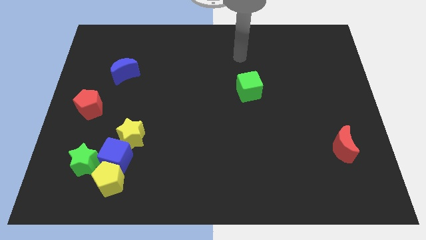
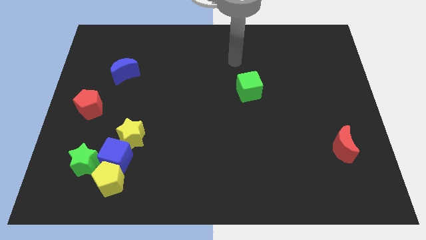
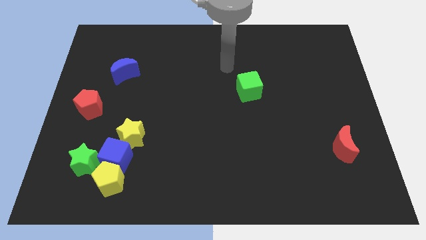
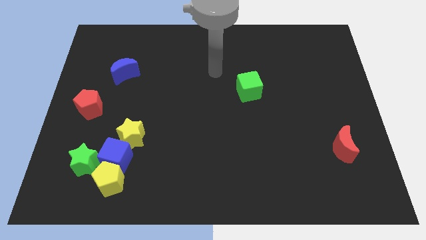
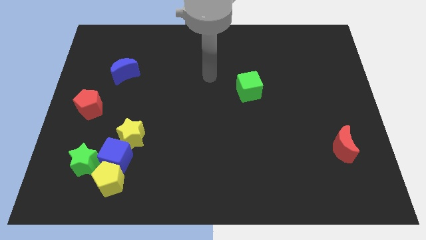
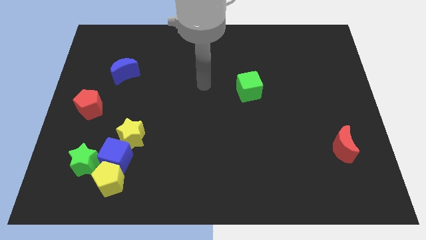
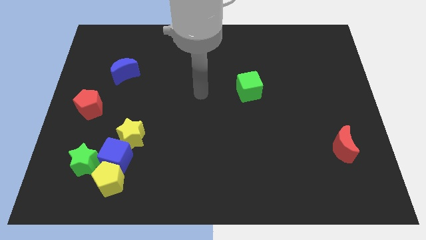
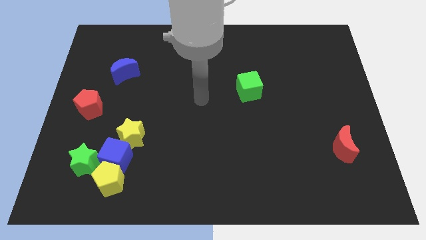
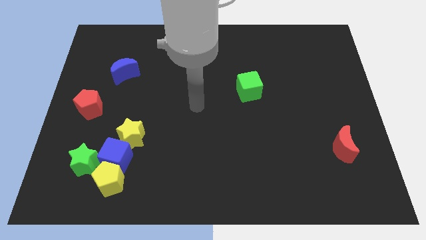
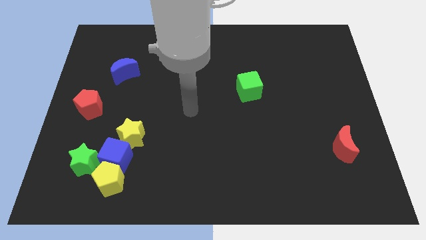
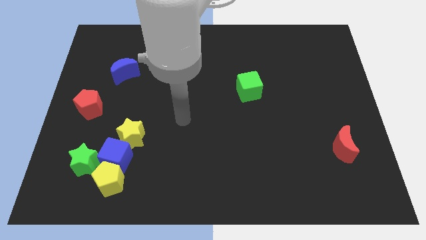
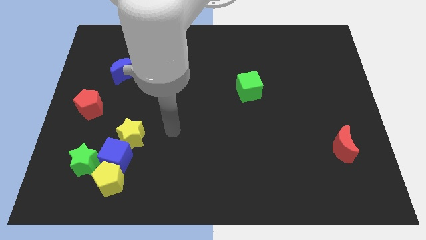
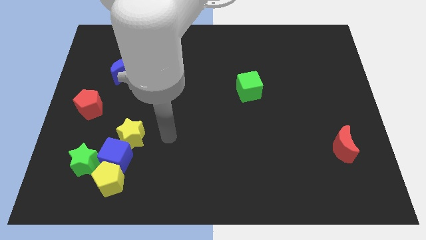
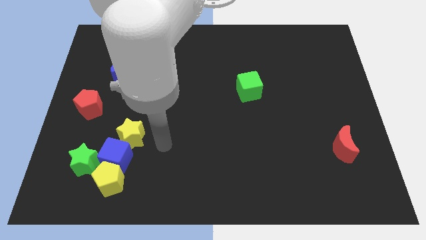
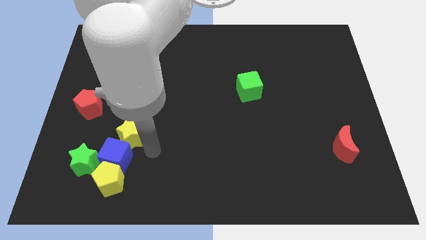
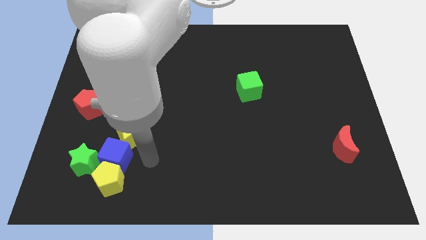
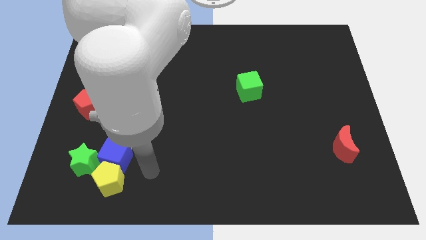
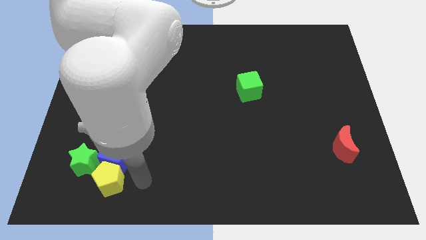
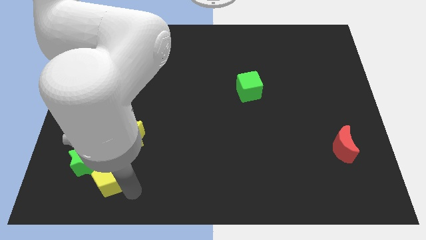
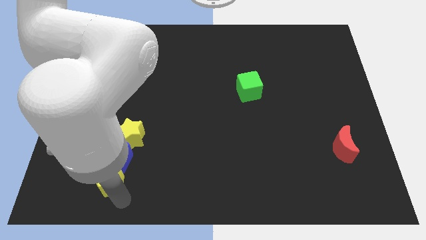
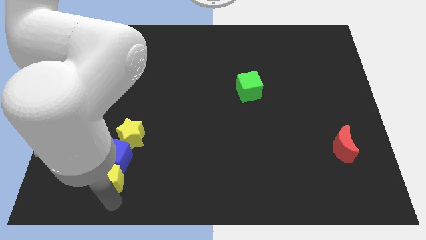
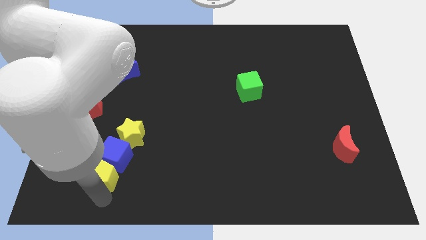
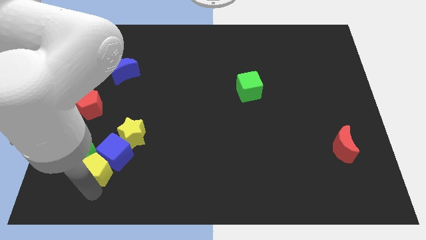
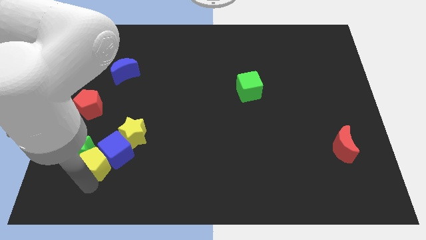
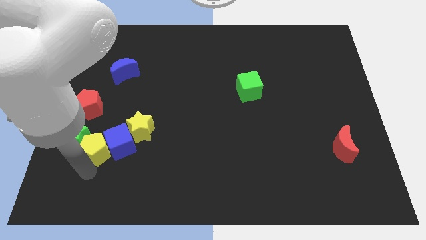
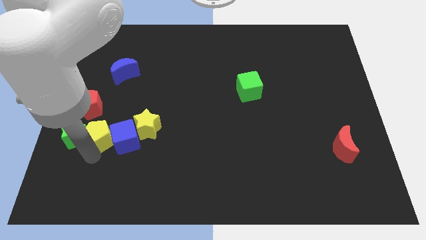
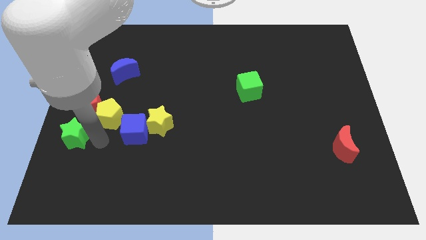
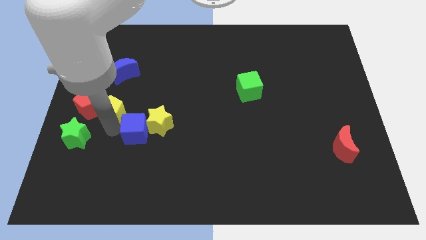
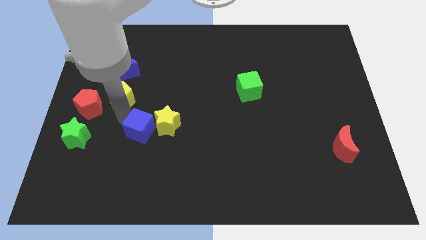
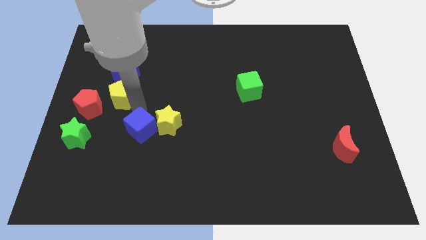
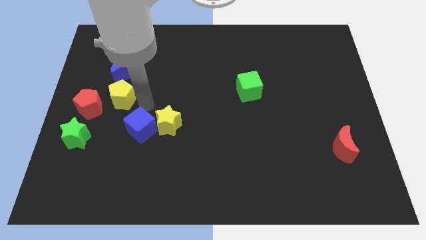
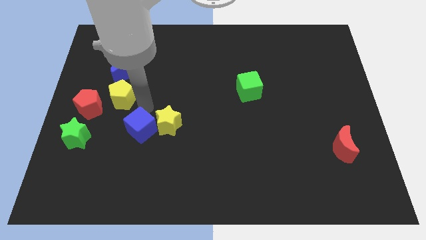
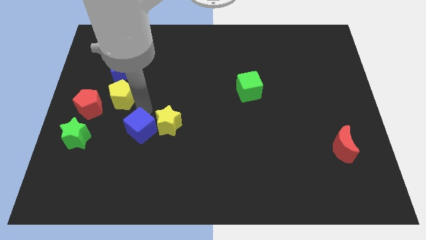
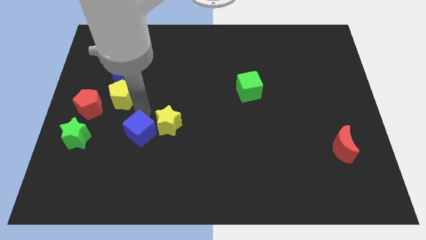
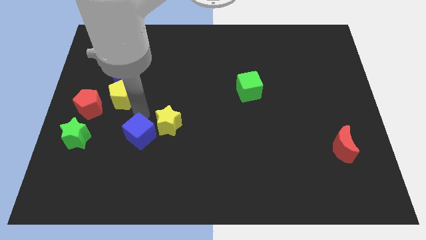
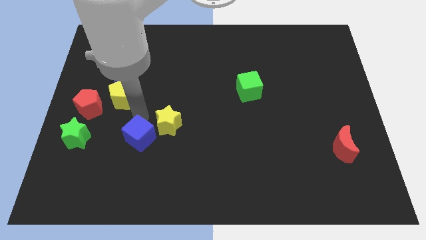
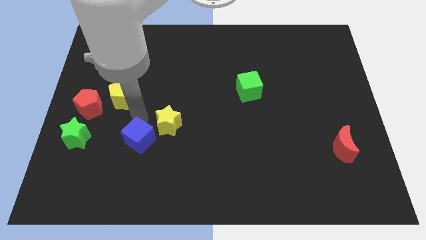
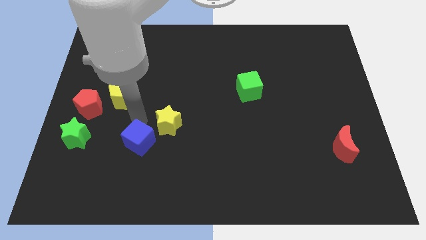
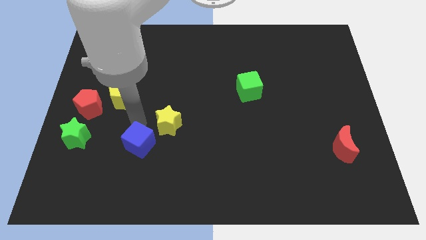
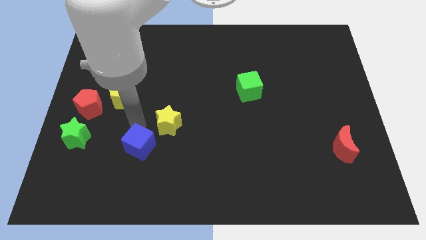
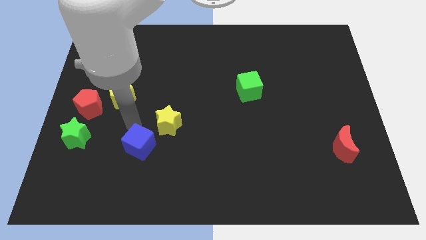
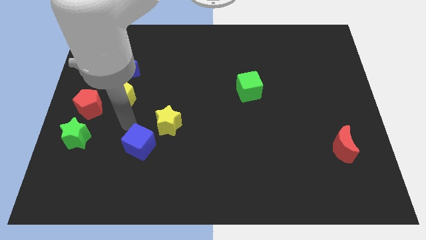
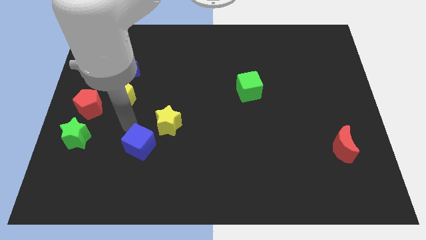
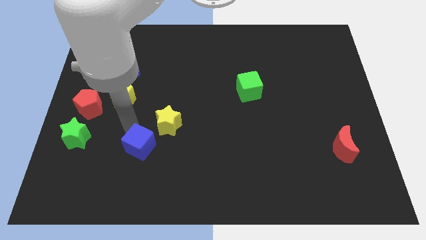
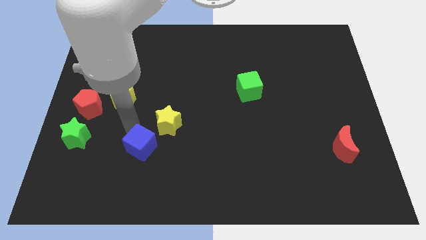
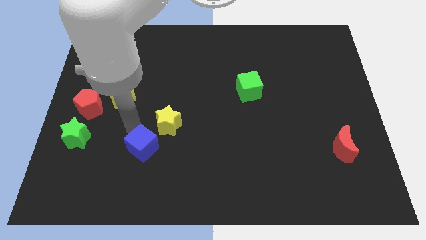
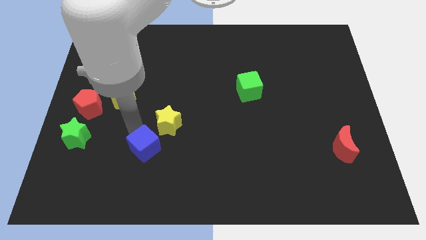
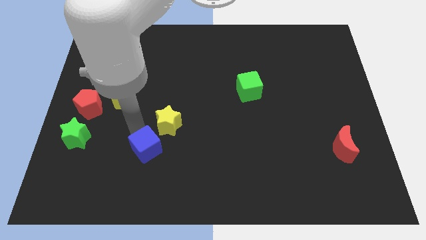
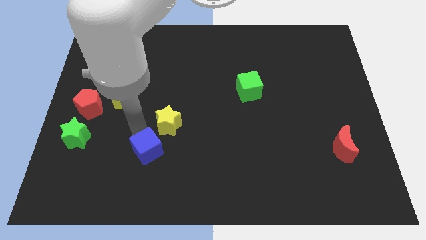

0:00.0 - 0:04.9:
pull the blue cube apart from the clump

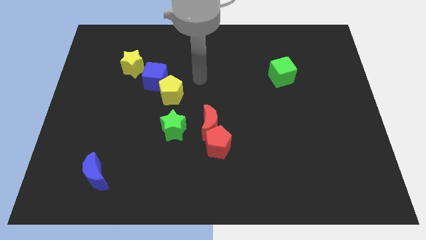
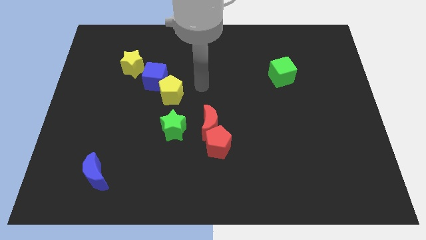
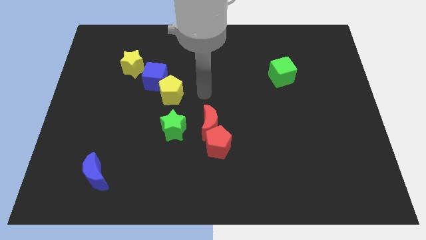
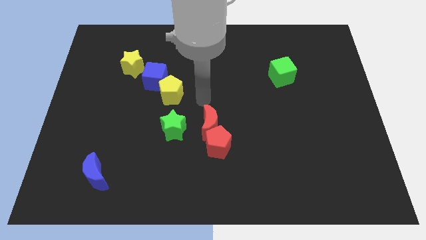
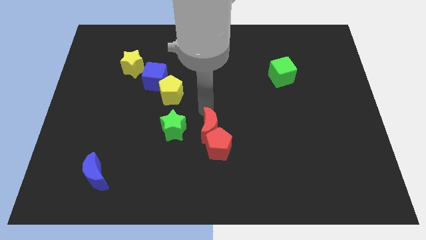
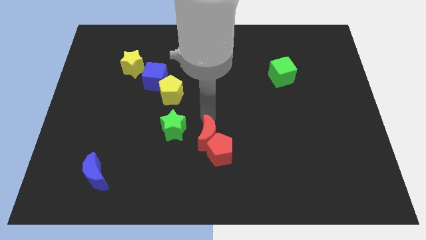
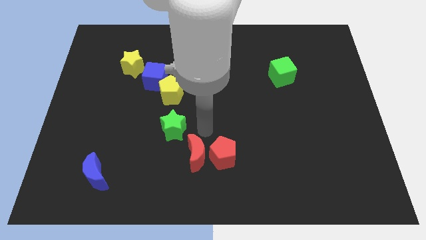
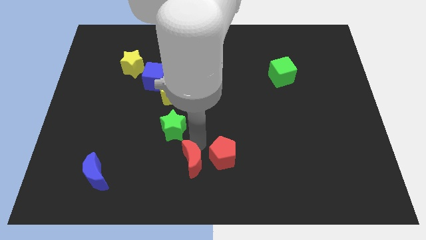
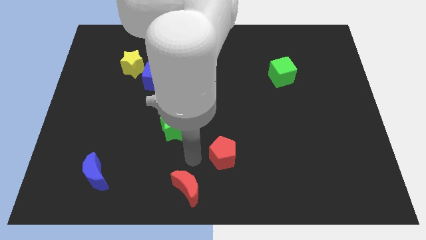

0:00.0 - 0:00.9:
move the red pentagon away from the red moon

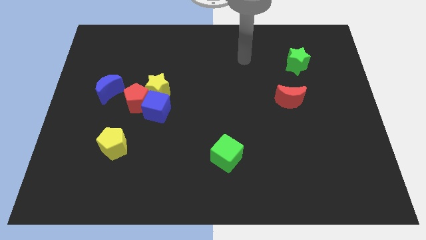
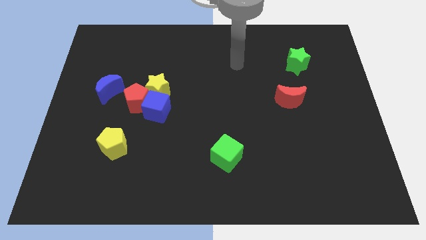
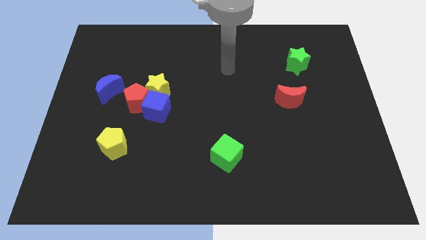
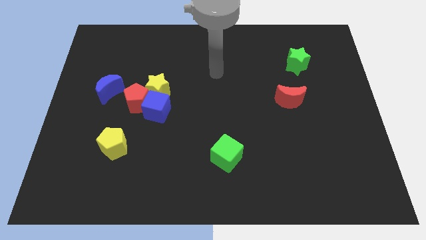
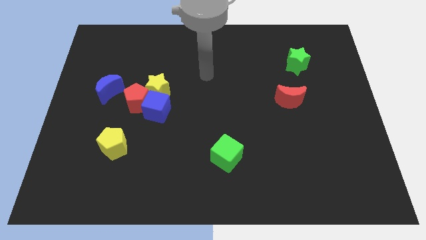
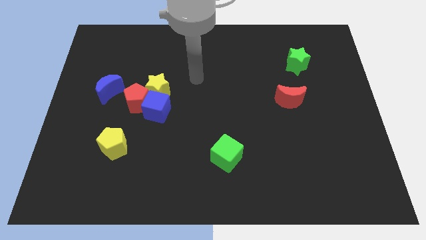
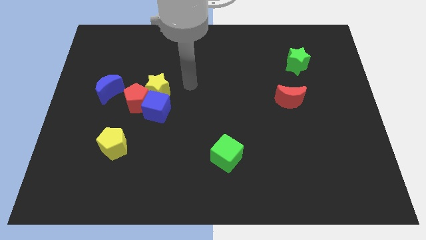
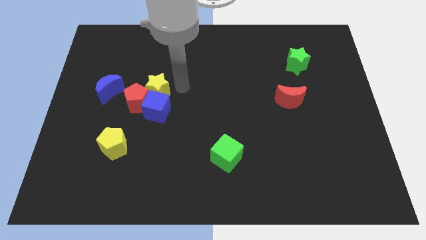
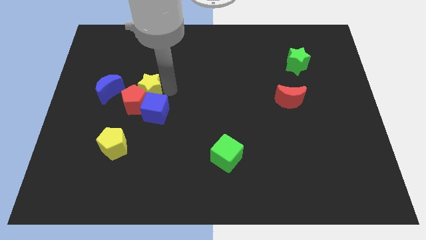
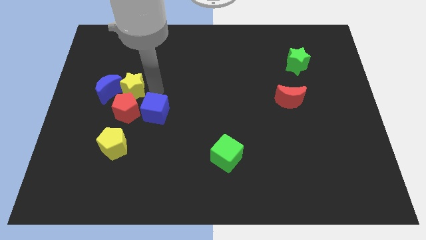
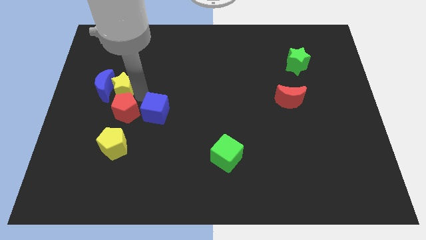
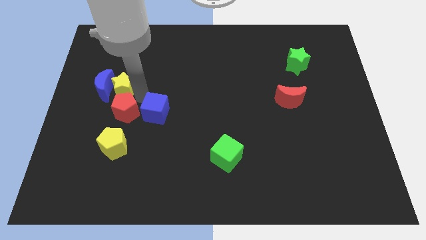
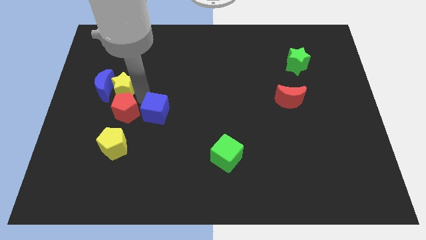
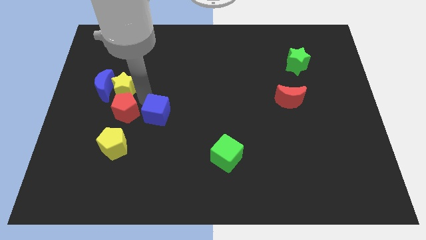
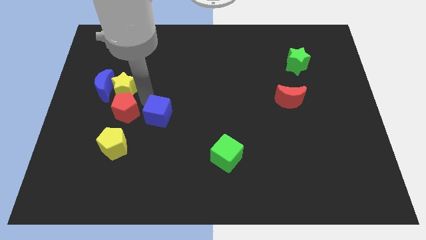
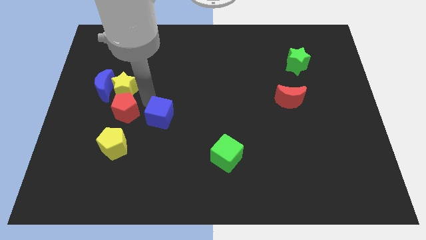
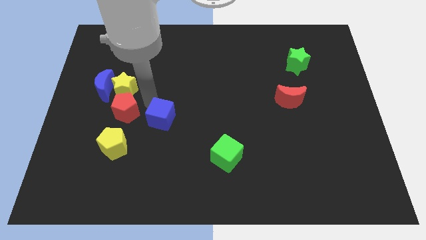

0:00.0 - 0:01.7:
pull the blue cube apart from the red pentagon and yellow star

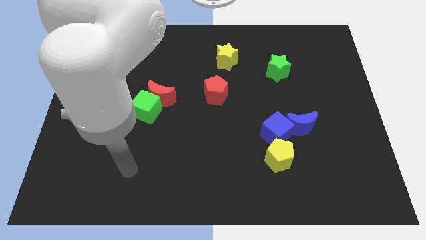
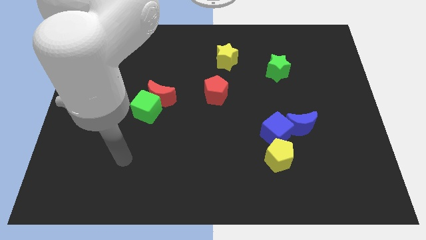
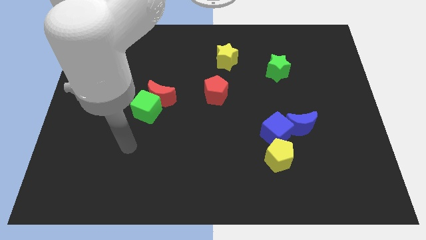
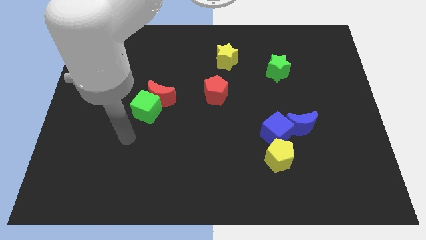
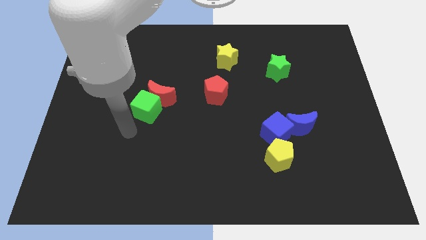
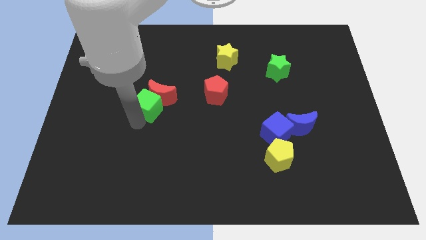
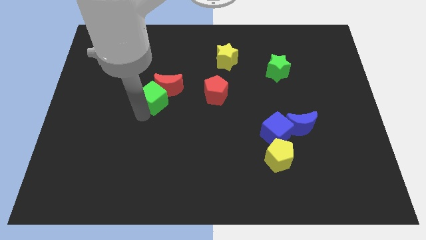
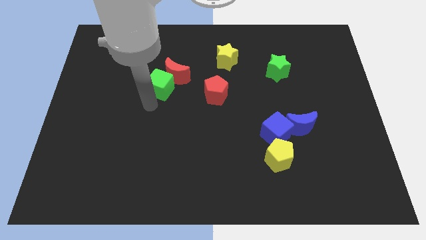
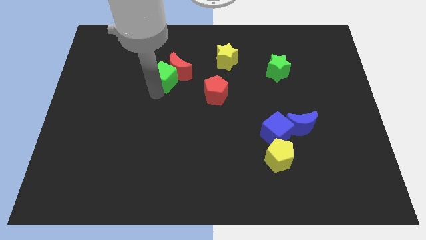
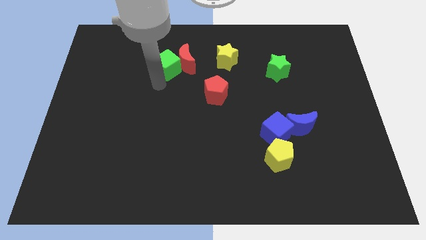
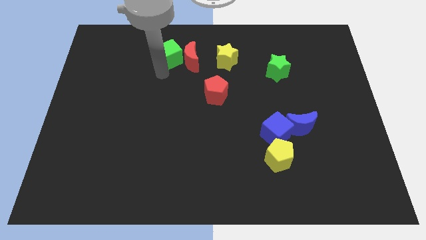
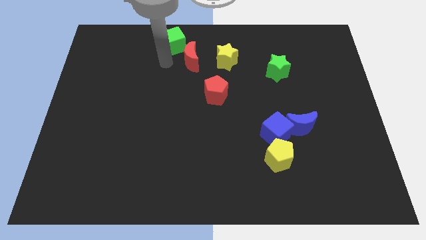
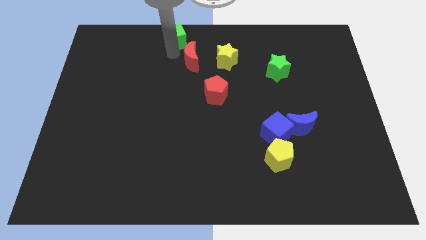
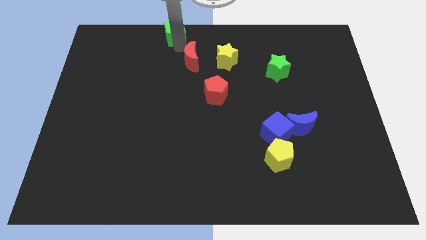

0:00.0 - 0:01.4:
separate the red moon from the green cube

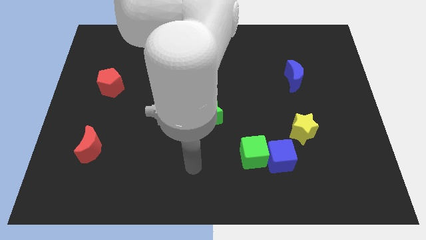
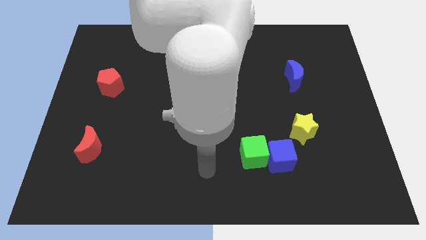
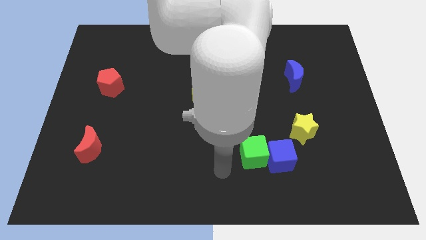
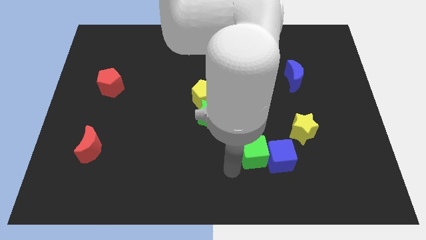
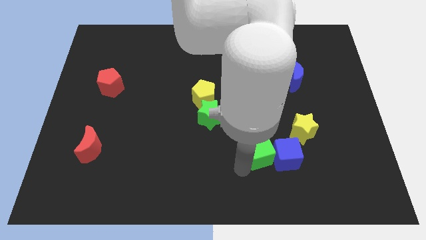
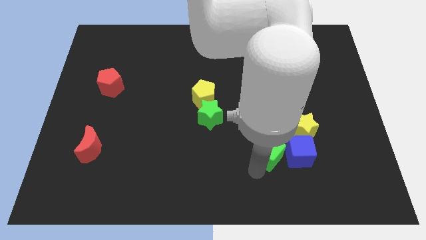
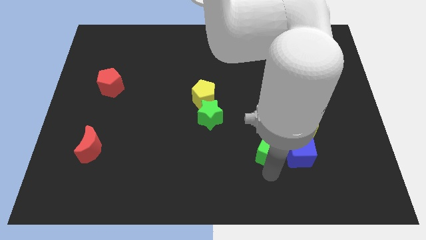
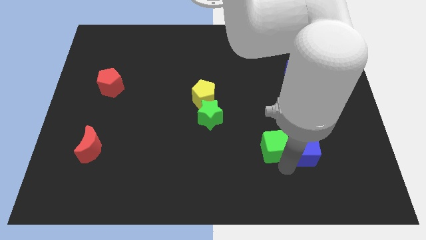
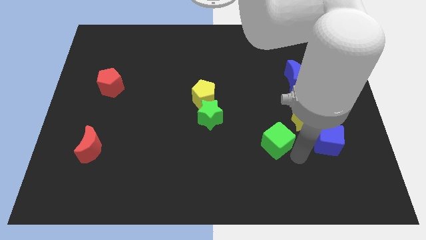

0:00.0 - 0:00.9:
move the green cube away from the blue cube
